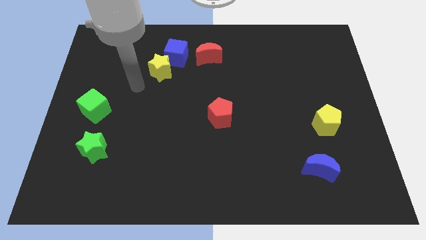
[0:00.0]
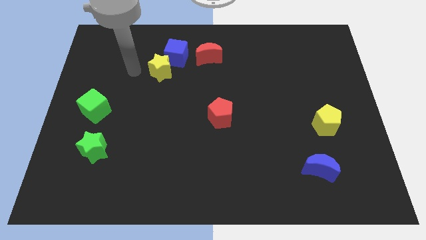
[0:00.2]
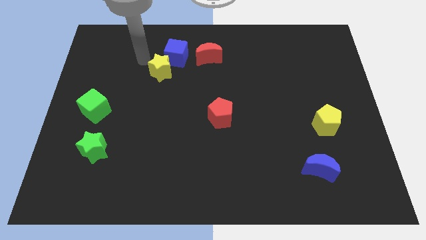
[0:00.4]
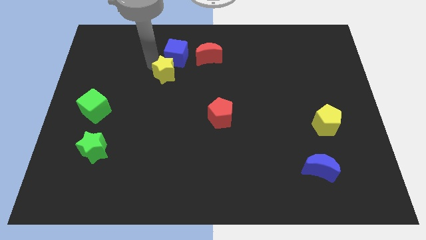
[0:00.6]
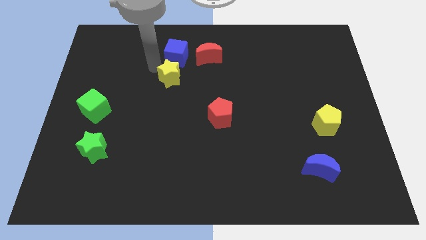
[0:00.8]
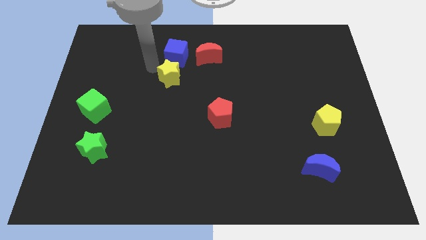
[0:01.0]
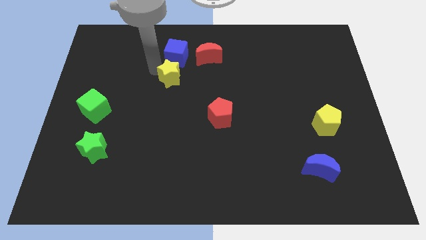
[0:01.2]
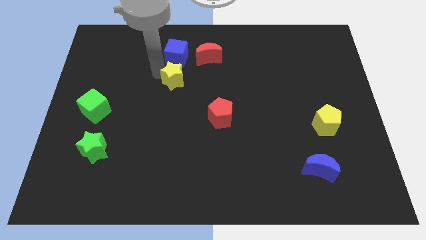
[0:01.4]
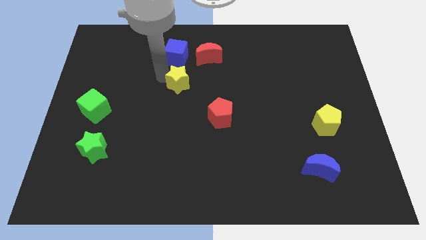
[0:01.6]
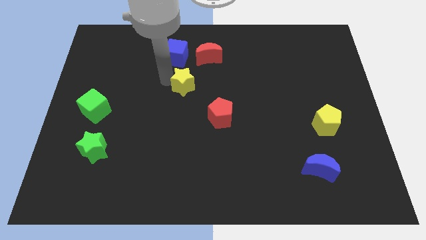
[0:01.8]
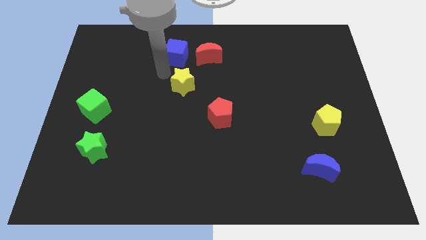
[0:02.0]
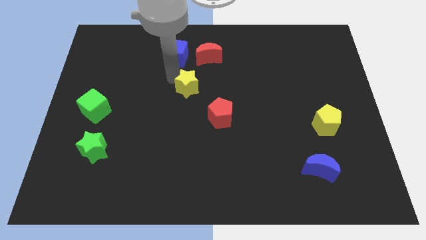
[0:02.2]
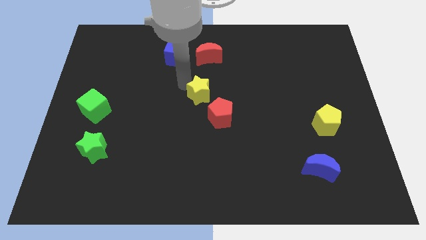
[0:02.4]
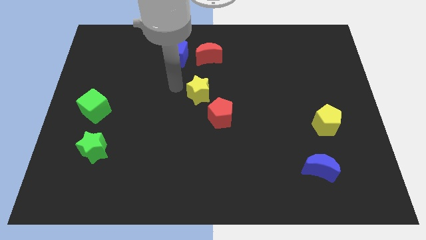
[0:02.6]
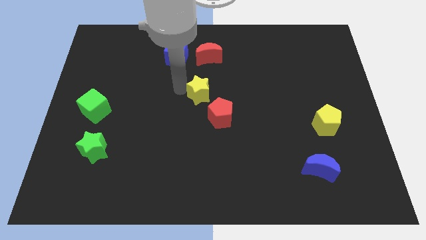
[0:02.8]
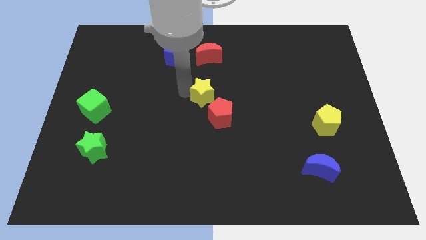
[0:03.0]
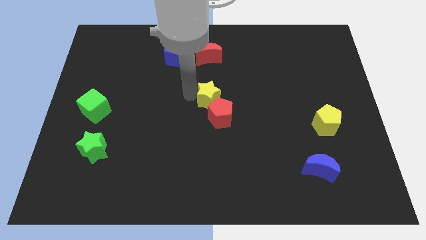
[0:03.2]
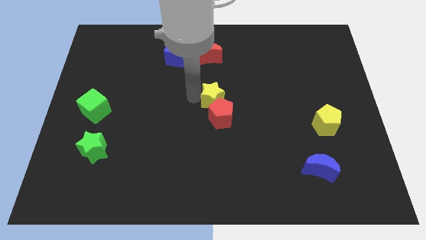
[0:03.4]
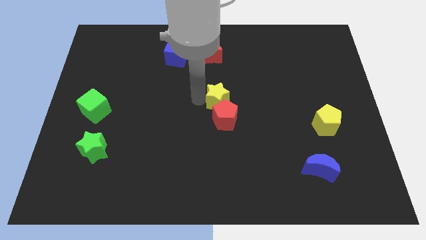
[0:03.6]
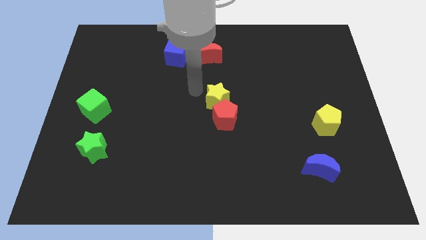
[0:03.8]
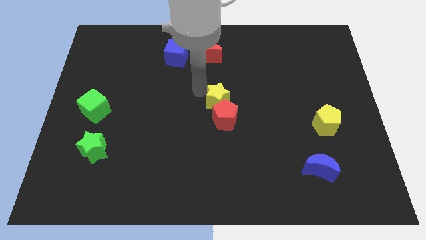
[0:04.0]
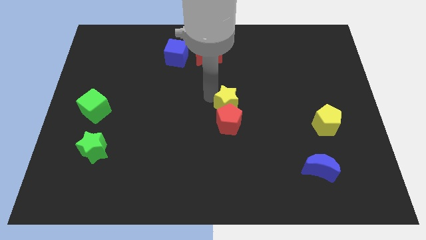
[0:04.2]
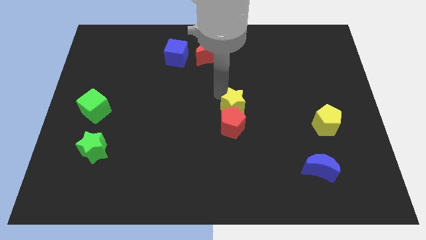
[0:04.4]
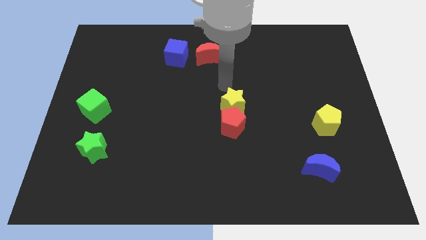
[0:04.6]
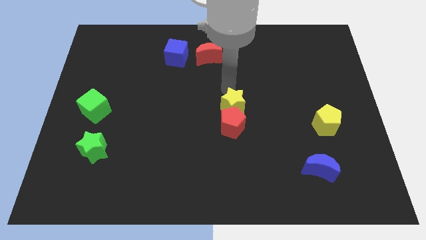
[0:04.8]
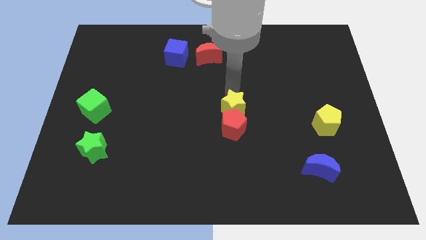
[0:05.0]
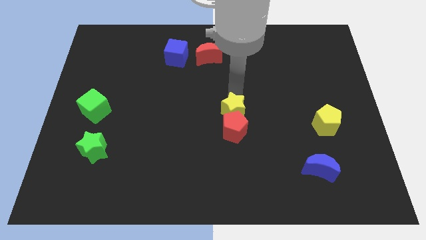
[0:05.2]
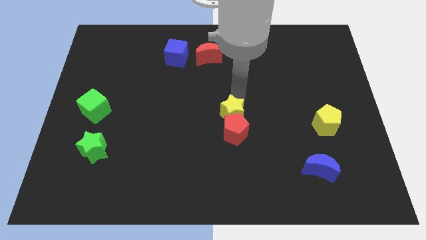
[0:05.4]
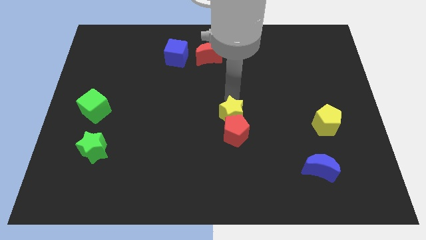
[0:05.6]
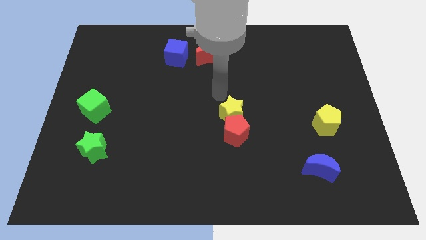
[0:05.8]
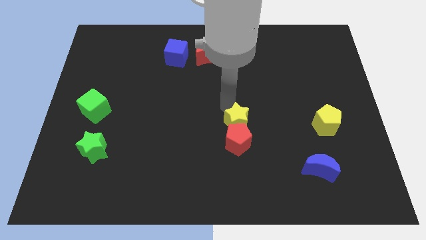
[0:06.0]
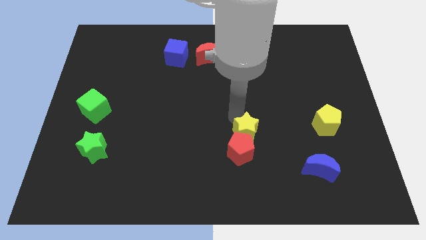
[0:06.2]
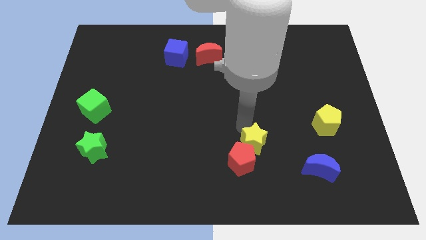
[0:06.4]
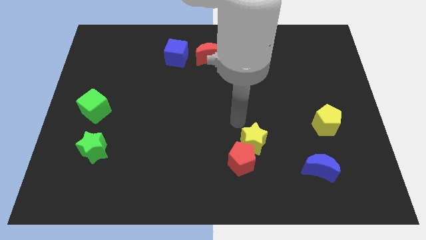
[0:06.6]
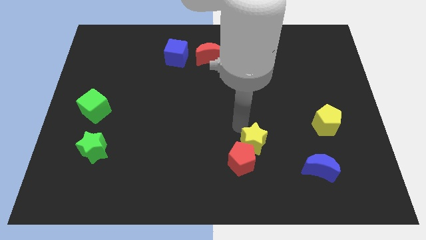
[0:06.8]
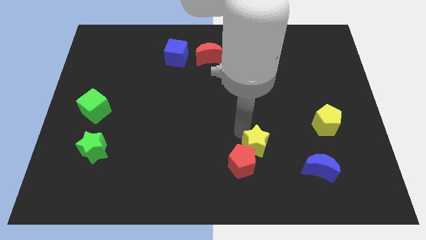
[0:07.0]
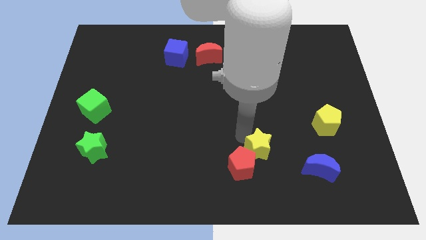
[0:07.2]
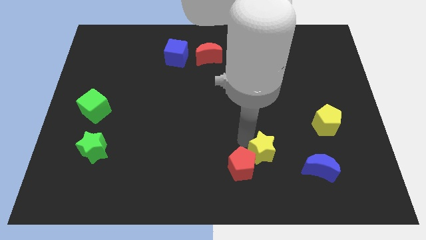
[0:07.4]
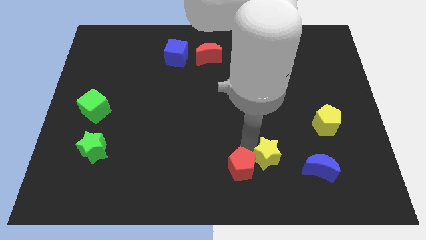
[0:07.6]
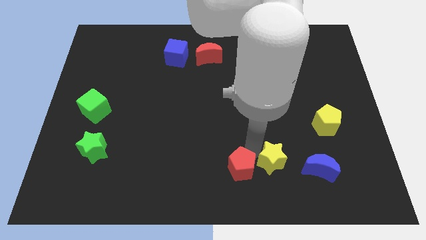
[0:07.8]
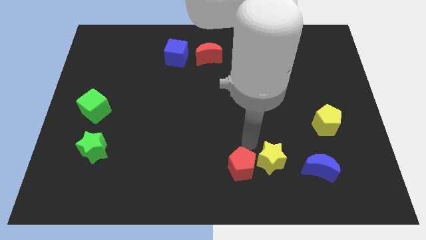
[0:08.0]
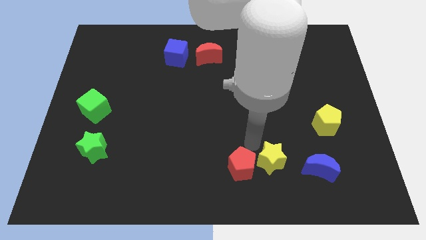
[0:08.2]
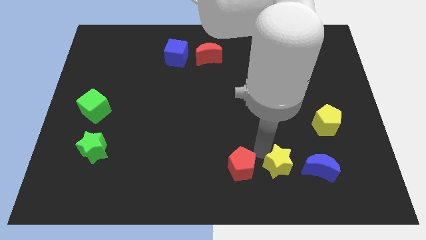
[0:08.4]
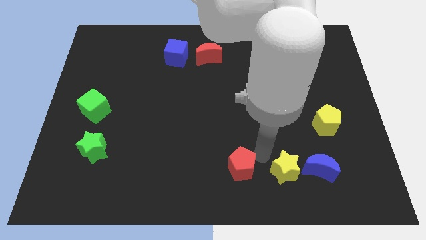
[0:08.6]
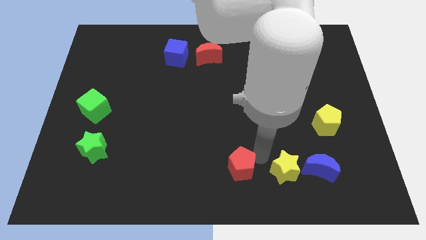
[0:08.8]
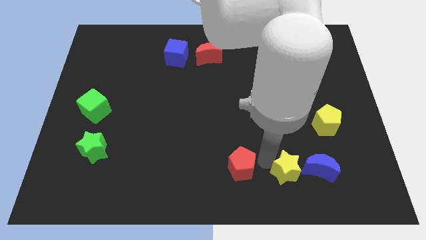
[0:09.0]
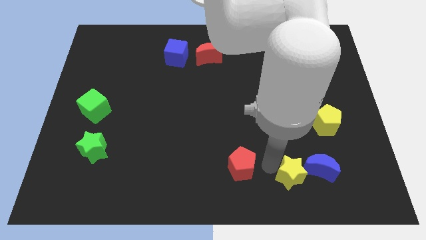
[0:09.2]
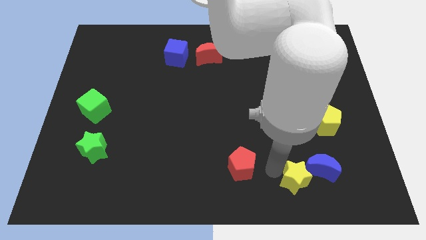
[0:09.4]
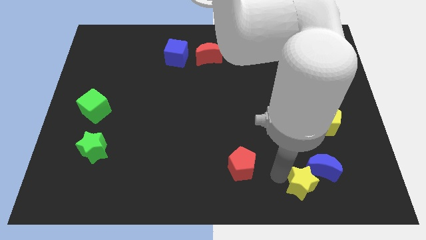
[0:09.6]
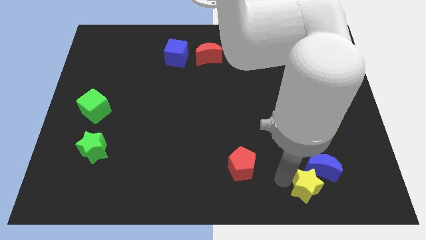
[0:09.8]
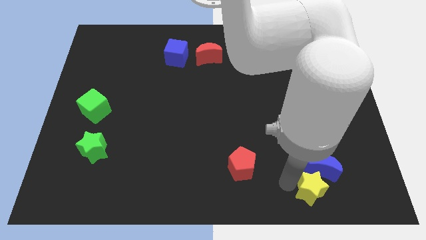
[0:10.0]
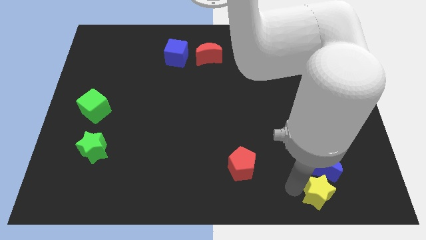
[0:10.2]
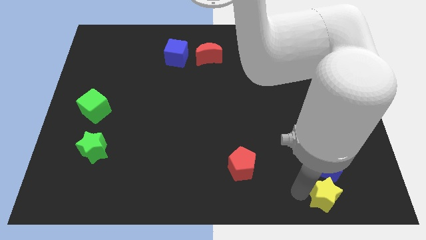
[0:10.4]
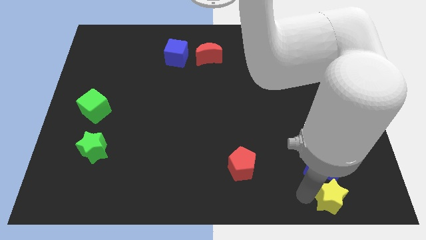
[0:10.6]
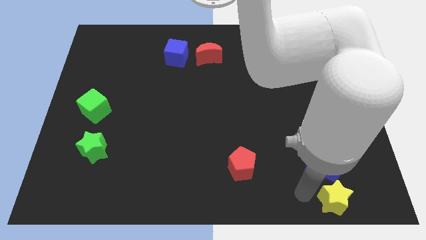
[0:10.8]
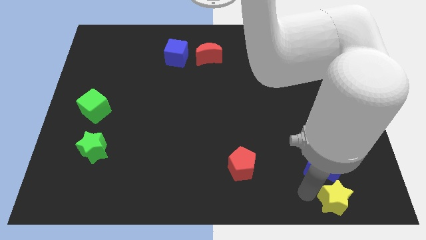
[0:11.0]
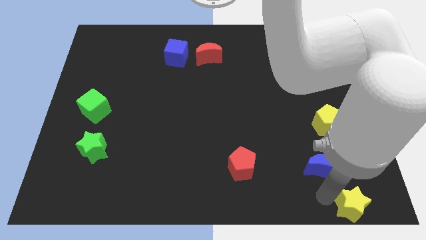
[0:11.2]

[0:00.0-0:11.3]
slide the yellow star to the lower right corner

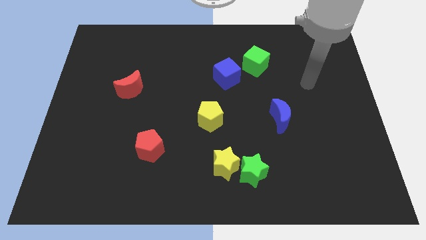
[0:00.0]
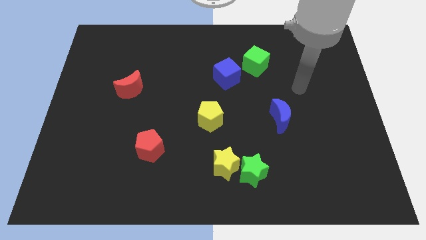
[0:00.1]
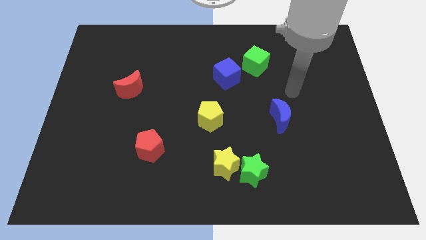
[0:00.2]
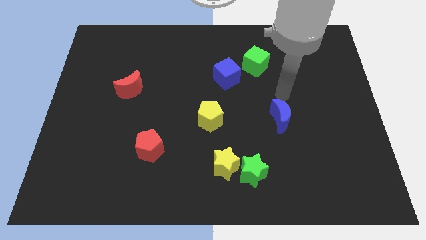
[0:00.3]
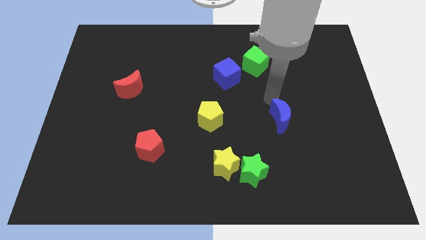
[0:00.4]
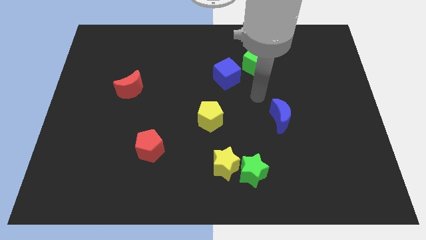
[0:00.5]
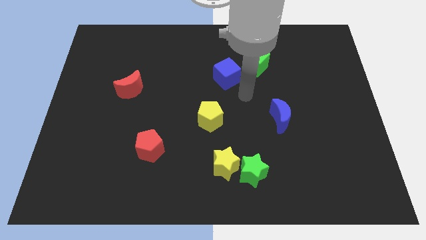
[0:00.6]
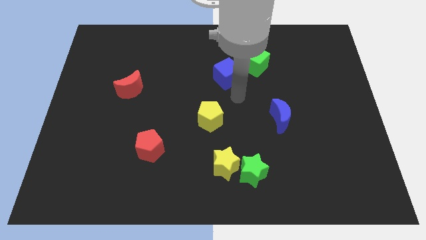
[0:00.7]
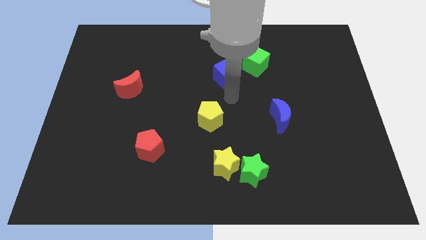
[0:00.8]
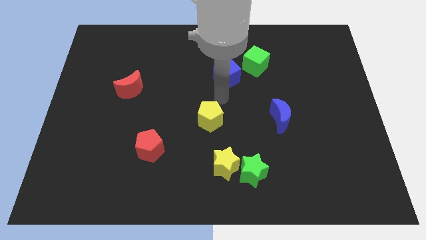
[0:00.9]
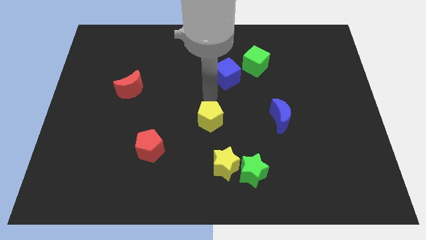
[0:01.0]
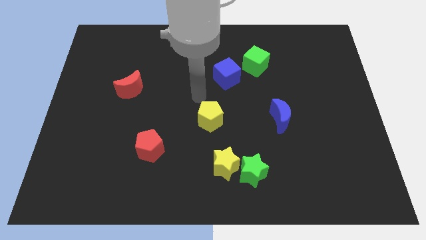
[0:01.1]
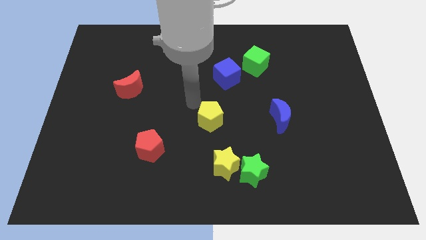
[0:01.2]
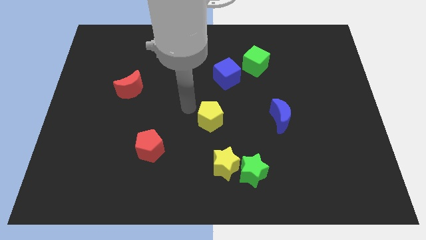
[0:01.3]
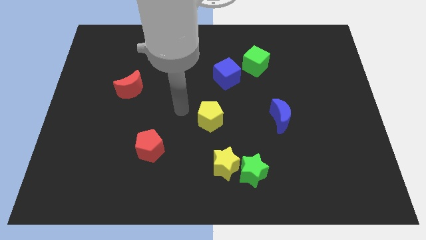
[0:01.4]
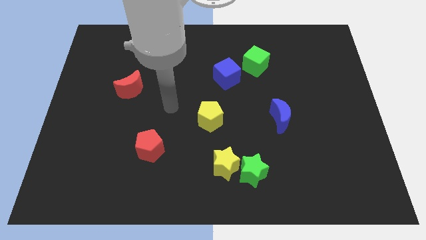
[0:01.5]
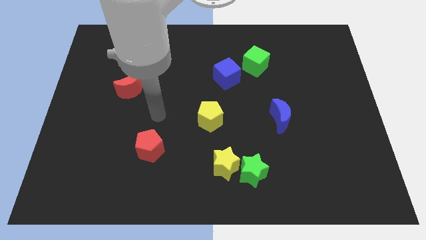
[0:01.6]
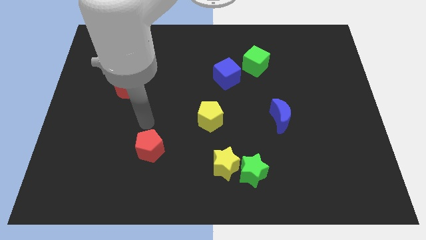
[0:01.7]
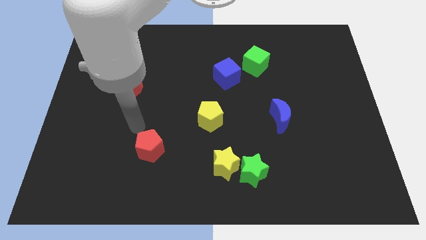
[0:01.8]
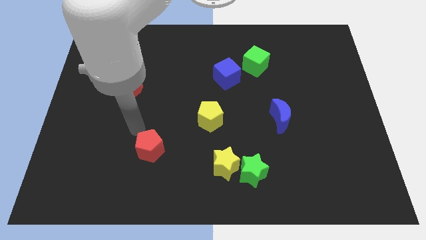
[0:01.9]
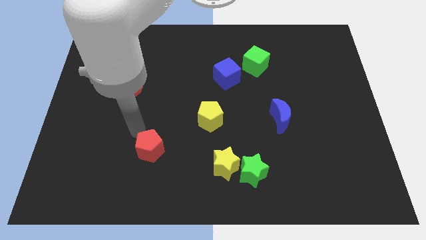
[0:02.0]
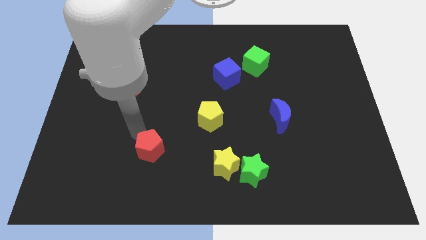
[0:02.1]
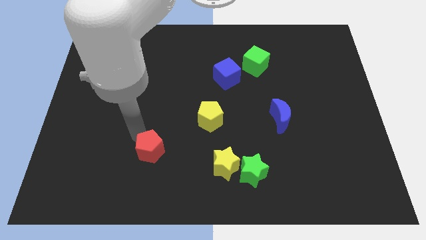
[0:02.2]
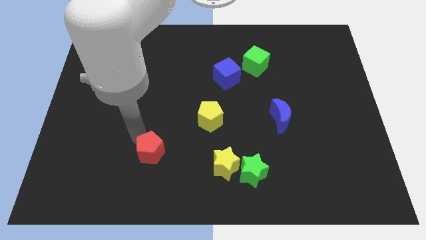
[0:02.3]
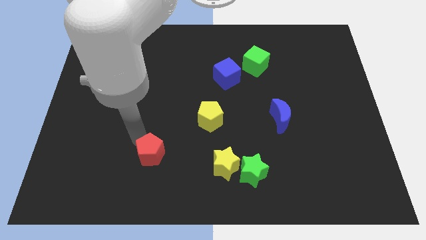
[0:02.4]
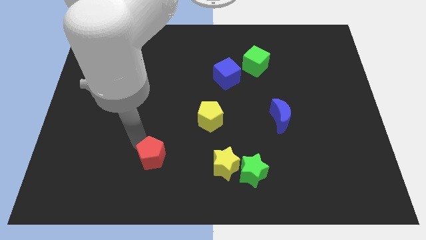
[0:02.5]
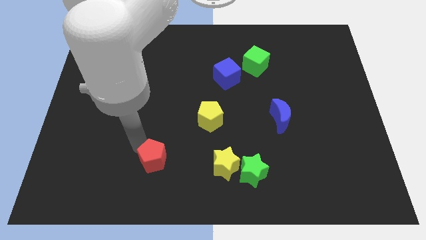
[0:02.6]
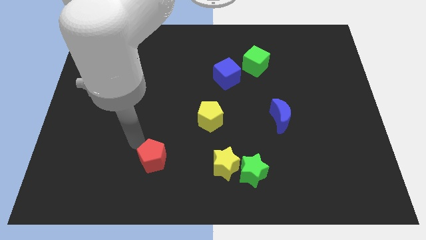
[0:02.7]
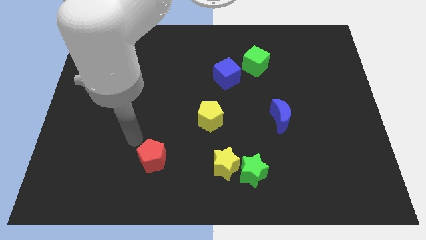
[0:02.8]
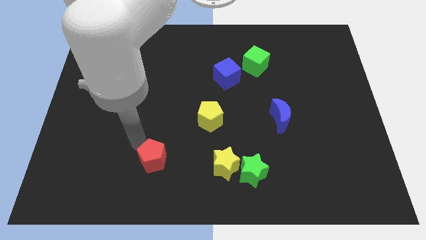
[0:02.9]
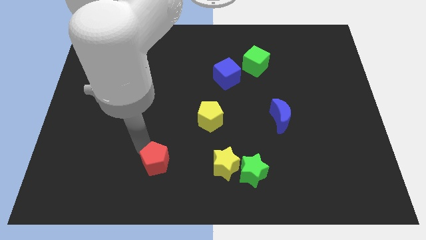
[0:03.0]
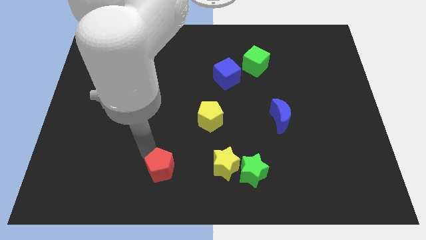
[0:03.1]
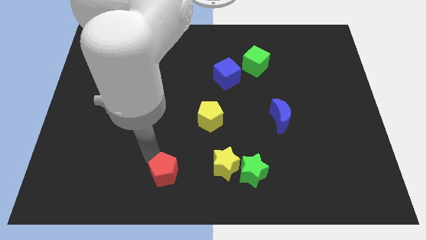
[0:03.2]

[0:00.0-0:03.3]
push the red pentagon to the bottom
